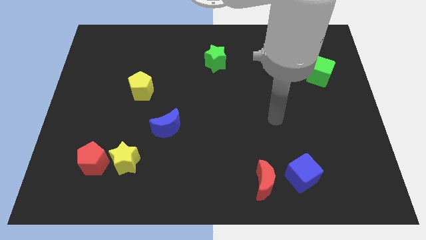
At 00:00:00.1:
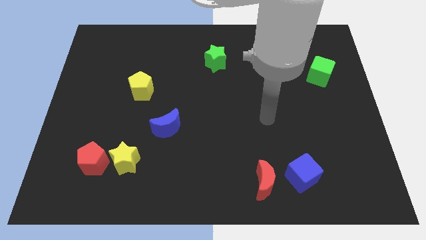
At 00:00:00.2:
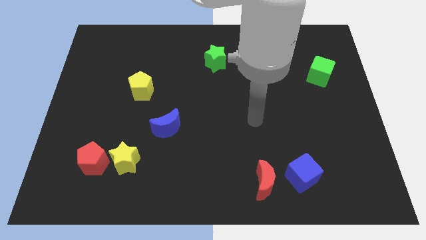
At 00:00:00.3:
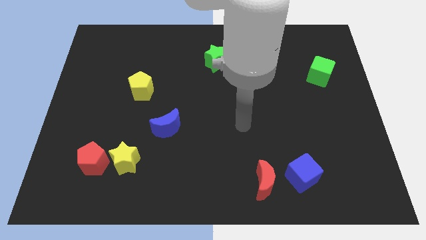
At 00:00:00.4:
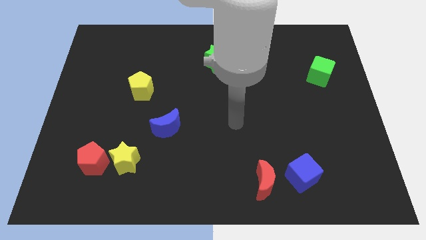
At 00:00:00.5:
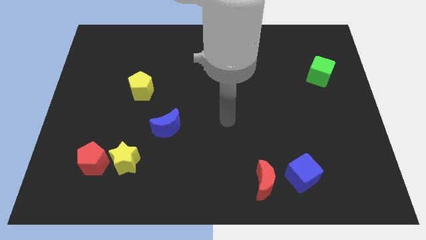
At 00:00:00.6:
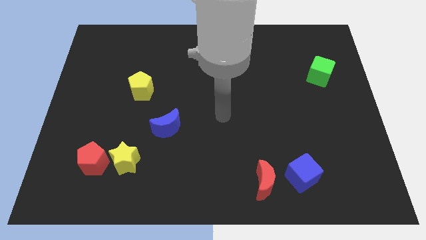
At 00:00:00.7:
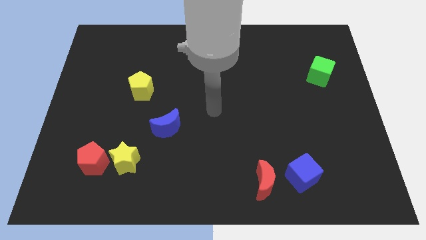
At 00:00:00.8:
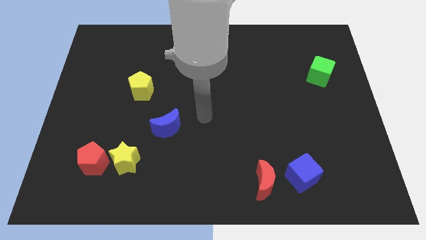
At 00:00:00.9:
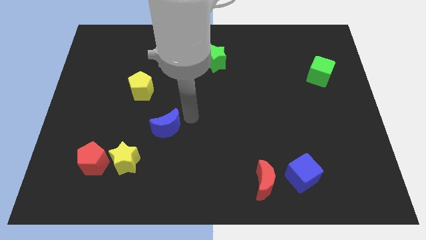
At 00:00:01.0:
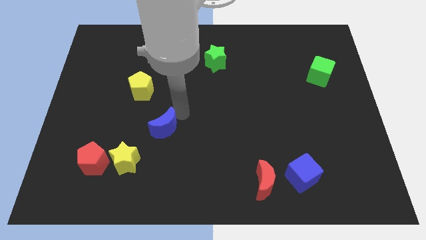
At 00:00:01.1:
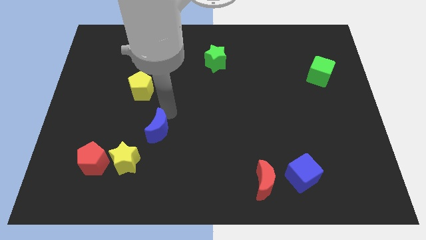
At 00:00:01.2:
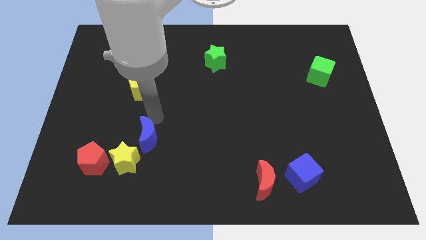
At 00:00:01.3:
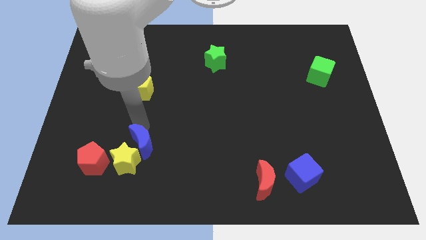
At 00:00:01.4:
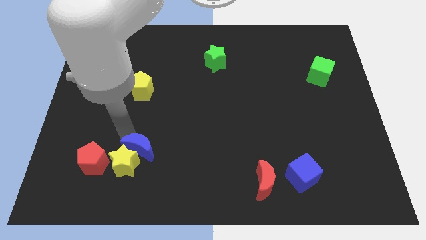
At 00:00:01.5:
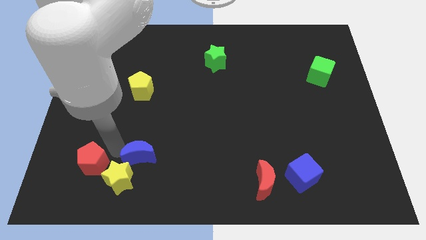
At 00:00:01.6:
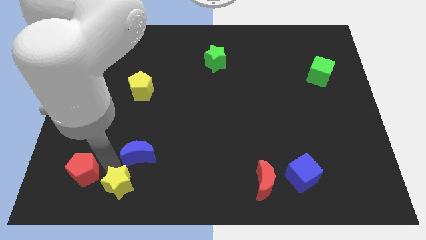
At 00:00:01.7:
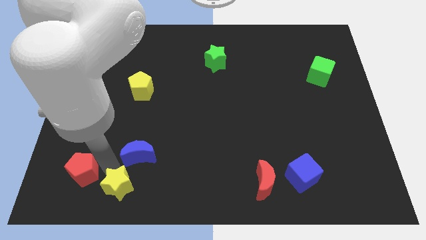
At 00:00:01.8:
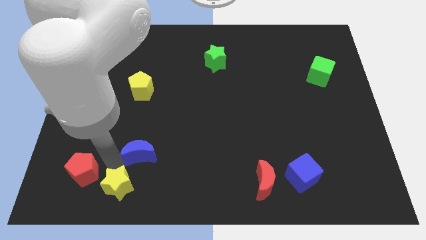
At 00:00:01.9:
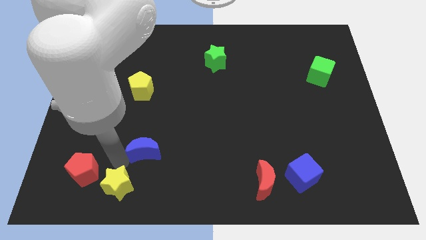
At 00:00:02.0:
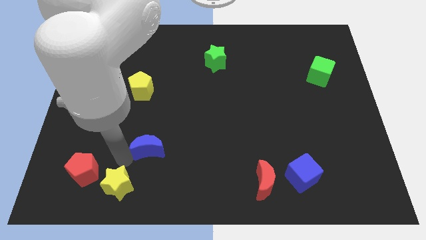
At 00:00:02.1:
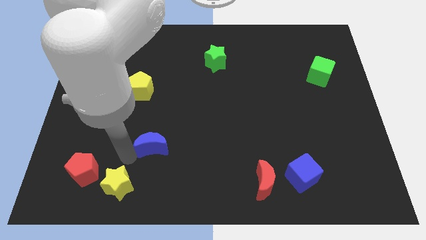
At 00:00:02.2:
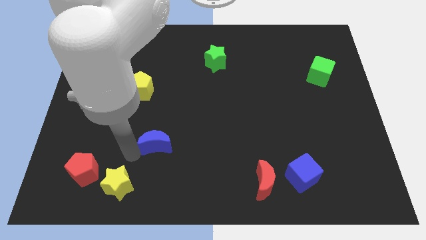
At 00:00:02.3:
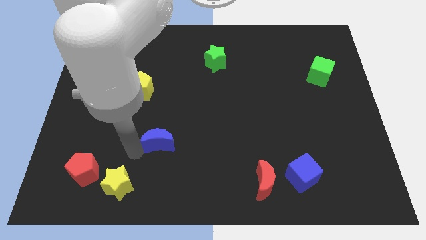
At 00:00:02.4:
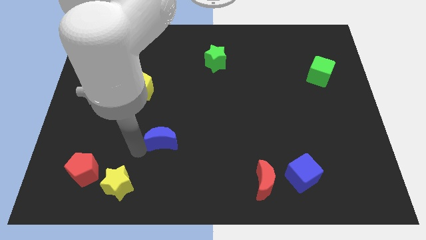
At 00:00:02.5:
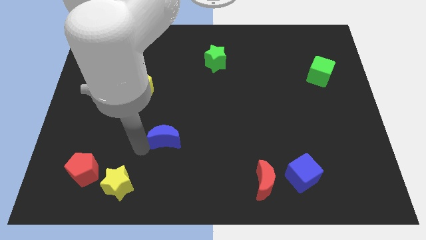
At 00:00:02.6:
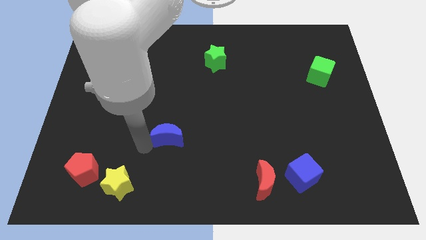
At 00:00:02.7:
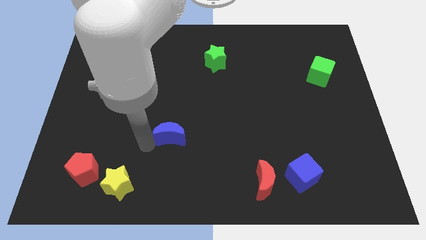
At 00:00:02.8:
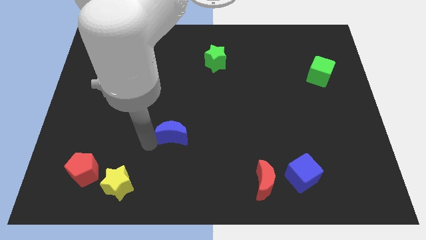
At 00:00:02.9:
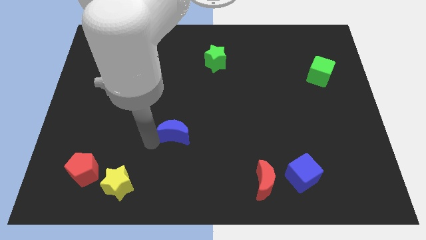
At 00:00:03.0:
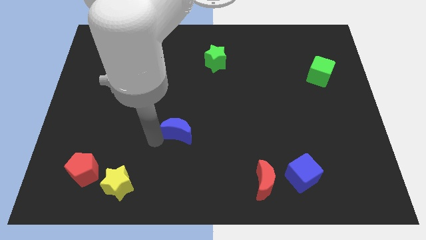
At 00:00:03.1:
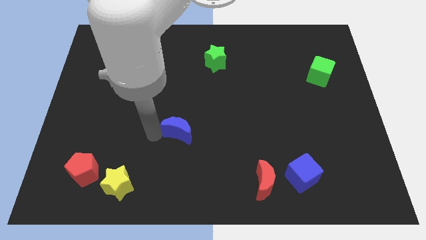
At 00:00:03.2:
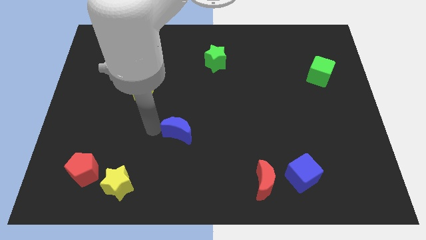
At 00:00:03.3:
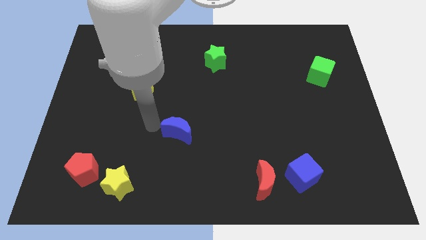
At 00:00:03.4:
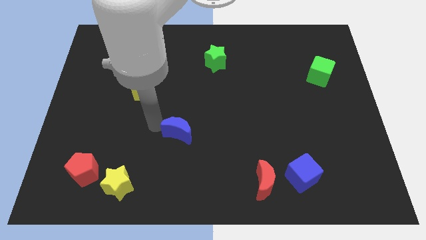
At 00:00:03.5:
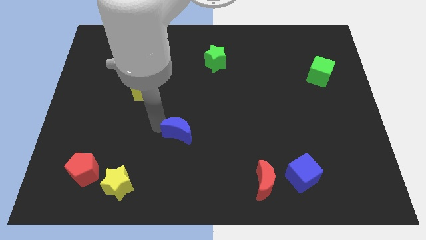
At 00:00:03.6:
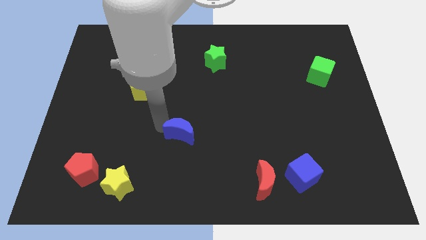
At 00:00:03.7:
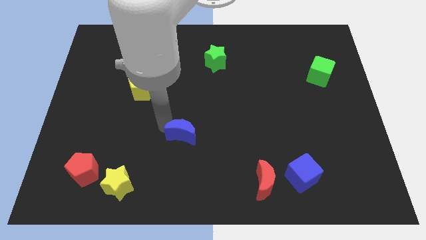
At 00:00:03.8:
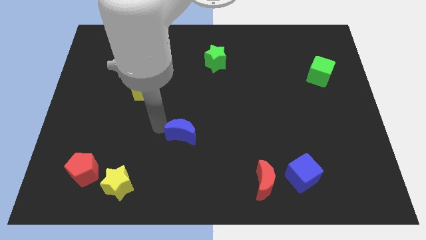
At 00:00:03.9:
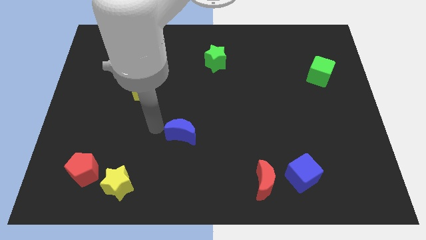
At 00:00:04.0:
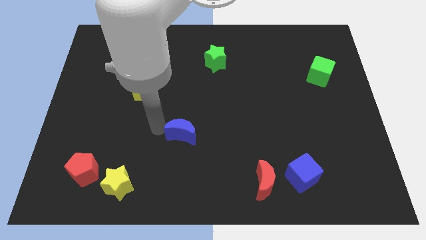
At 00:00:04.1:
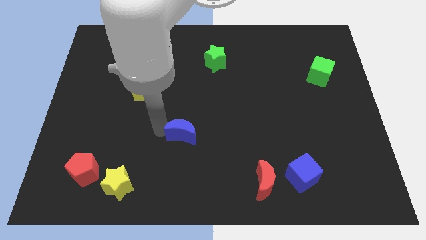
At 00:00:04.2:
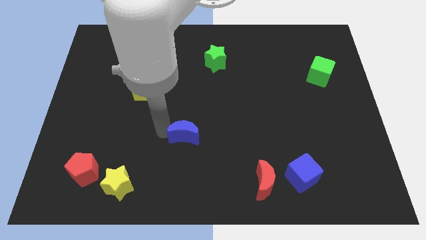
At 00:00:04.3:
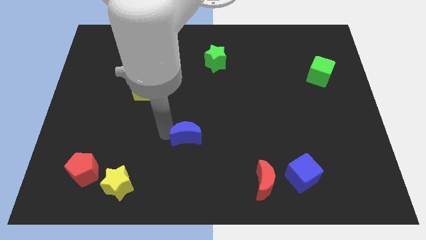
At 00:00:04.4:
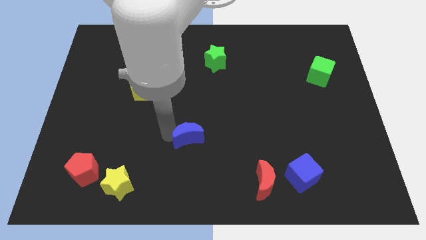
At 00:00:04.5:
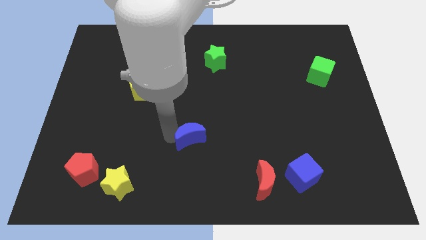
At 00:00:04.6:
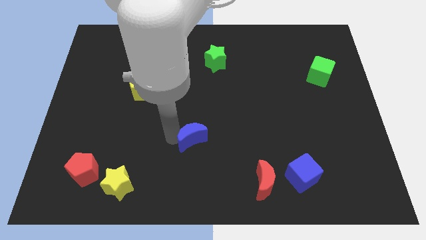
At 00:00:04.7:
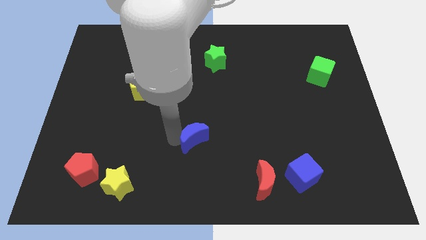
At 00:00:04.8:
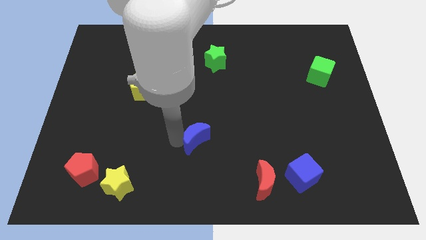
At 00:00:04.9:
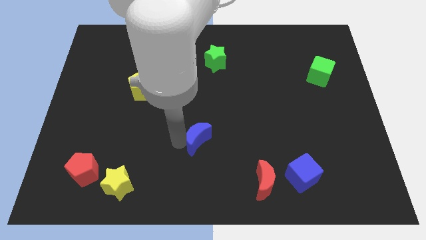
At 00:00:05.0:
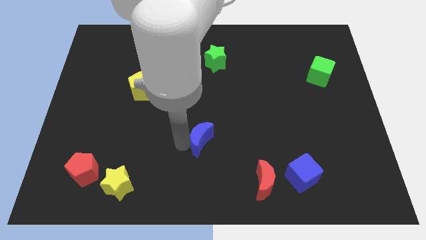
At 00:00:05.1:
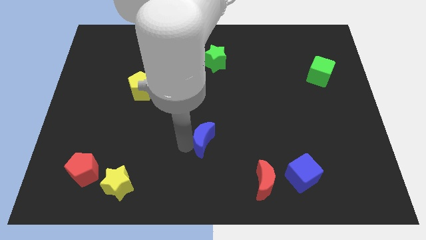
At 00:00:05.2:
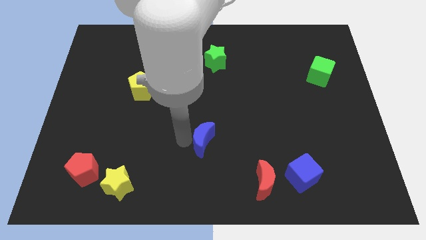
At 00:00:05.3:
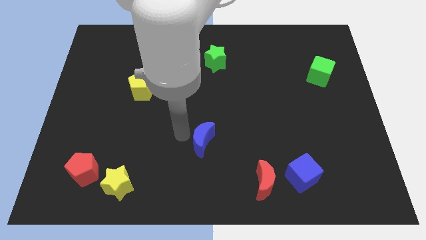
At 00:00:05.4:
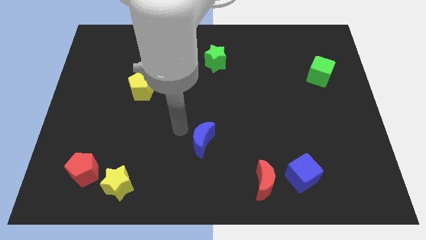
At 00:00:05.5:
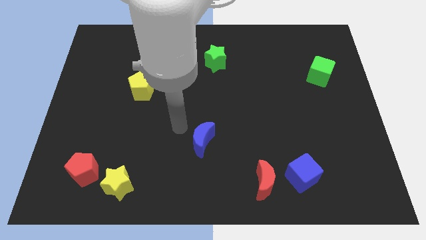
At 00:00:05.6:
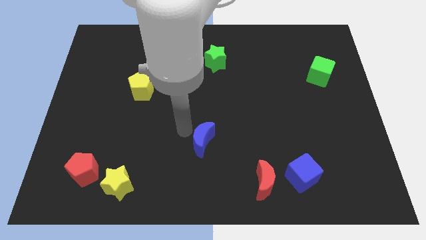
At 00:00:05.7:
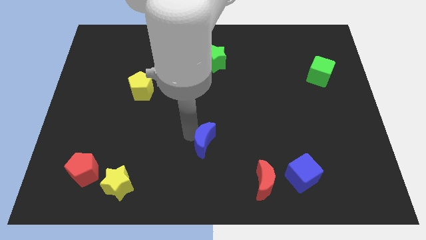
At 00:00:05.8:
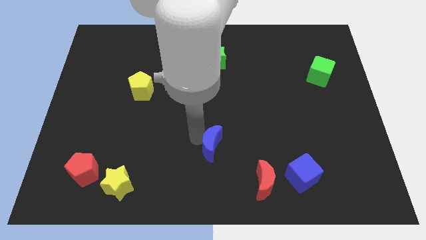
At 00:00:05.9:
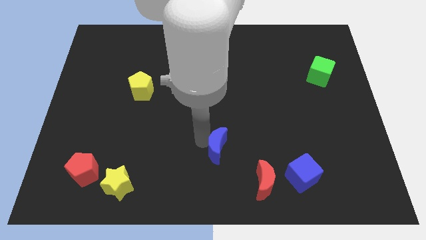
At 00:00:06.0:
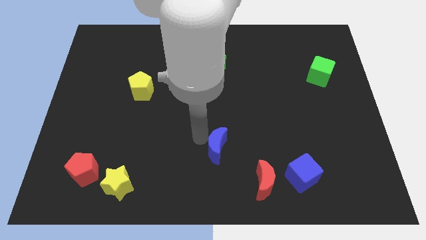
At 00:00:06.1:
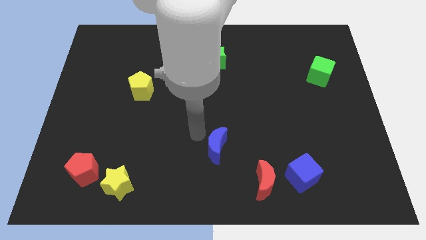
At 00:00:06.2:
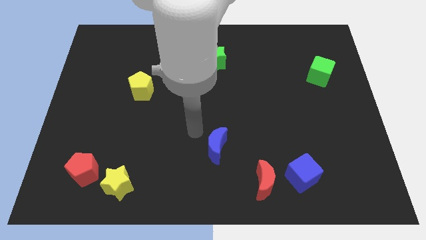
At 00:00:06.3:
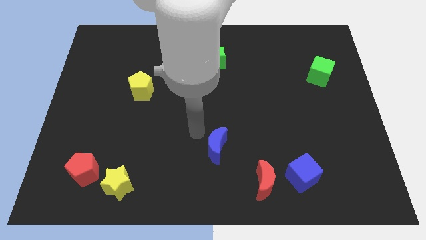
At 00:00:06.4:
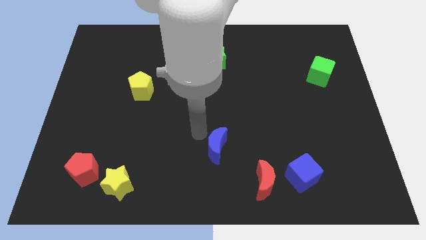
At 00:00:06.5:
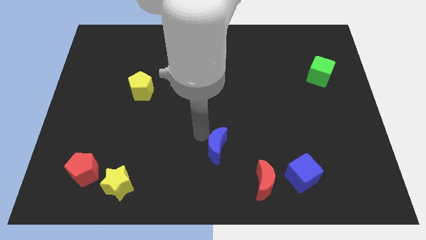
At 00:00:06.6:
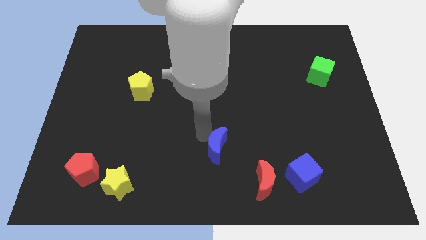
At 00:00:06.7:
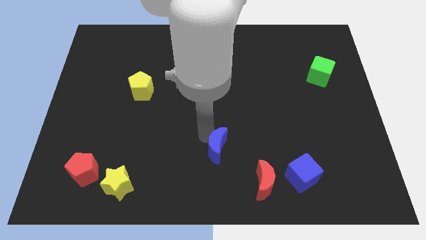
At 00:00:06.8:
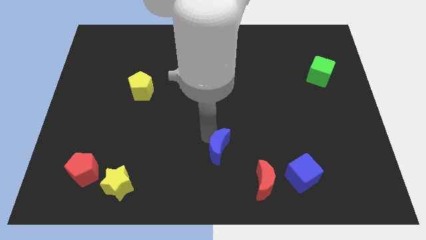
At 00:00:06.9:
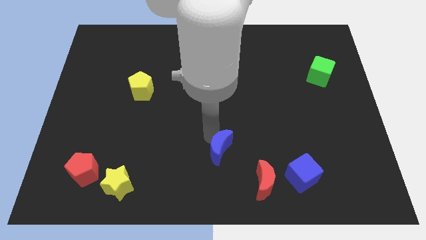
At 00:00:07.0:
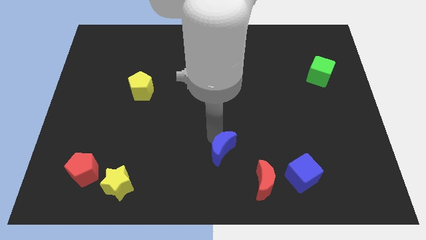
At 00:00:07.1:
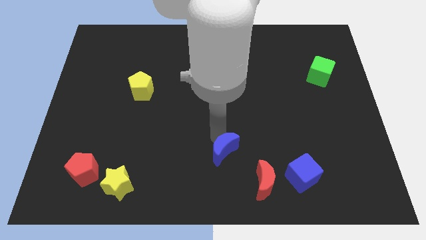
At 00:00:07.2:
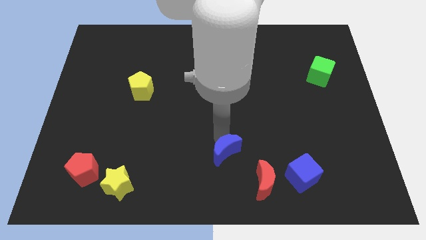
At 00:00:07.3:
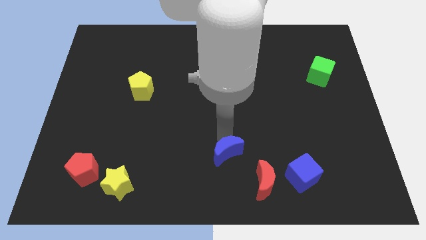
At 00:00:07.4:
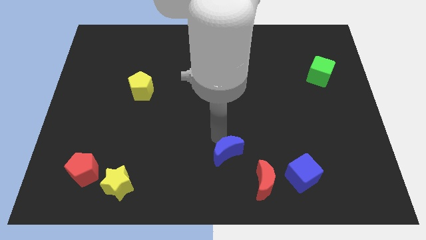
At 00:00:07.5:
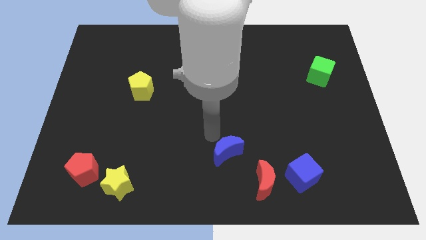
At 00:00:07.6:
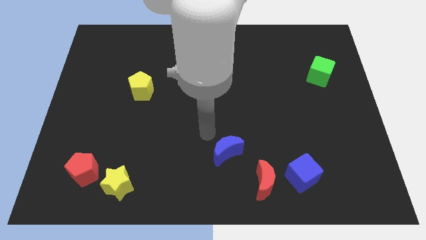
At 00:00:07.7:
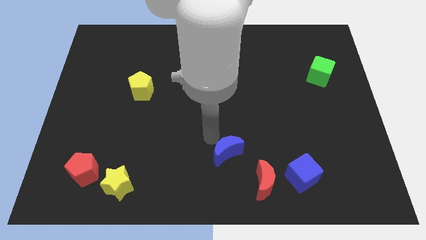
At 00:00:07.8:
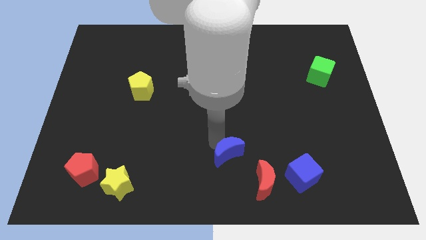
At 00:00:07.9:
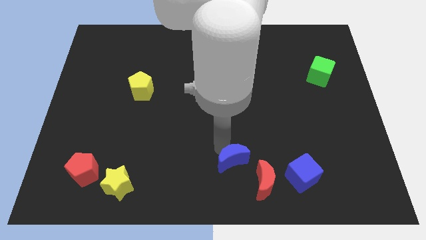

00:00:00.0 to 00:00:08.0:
put the blue moon to the left side of the blue cube
